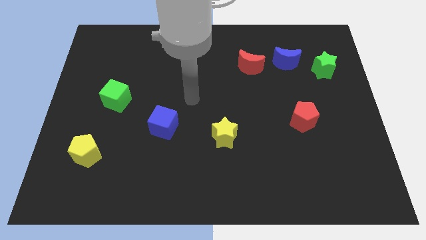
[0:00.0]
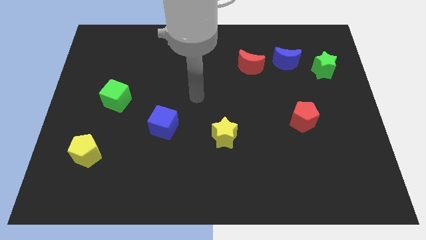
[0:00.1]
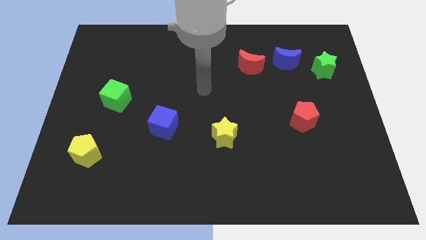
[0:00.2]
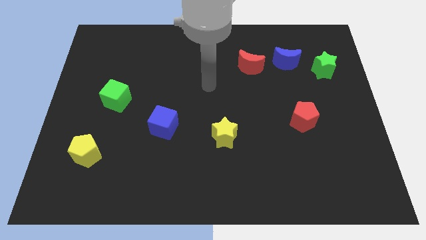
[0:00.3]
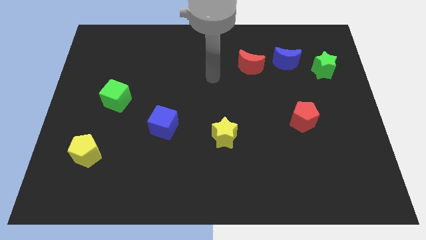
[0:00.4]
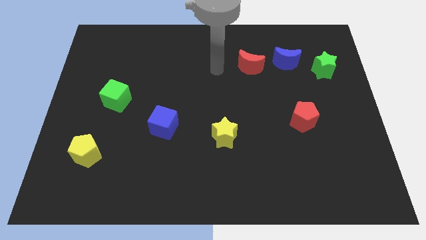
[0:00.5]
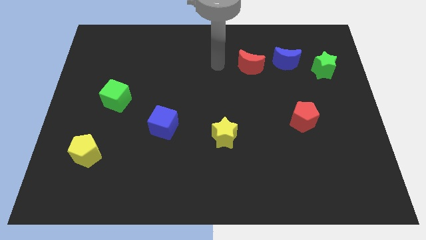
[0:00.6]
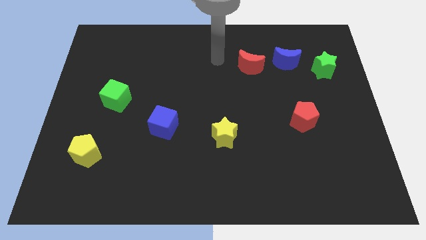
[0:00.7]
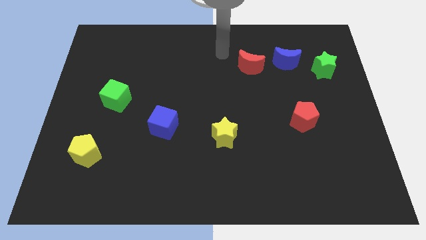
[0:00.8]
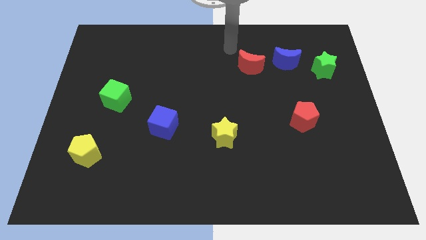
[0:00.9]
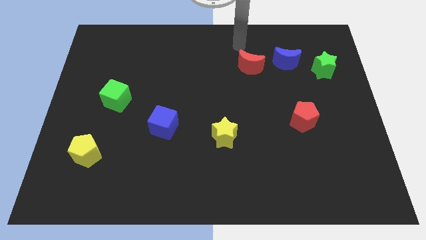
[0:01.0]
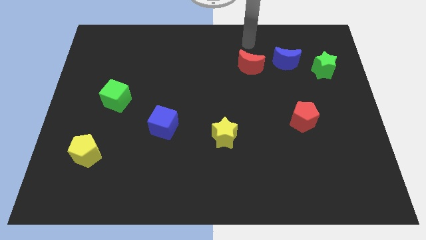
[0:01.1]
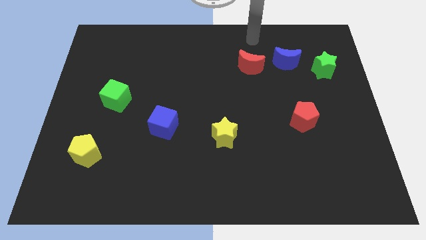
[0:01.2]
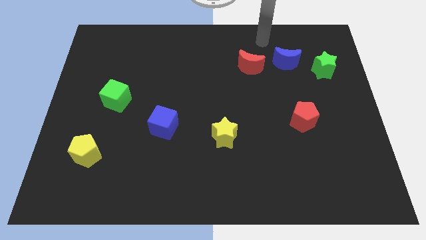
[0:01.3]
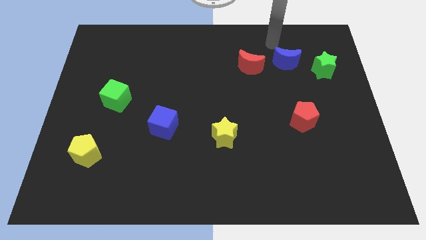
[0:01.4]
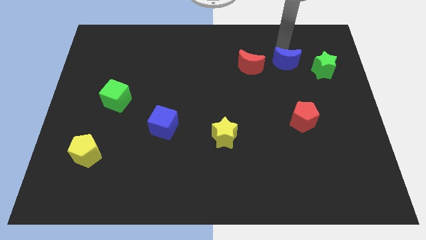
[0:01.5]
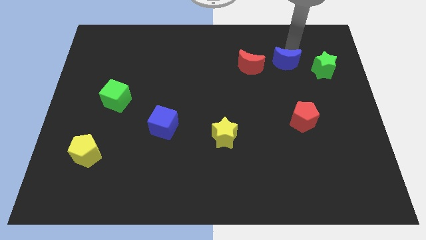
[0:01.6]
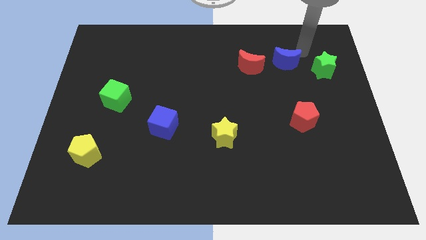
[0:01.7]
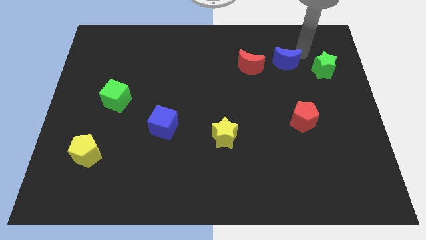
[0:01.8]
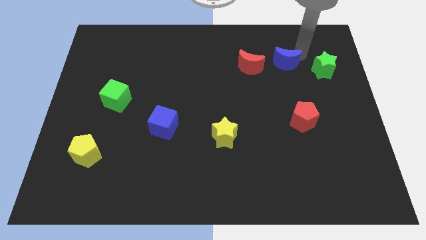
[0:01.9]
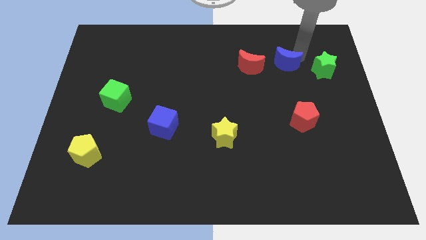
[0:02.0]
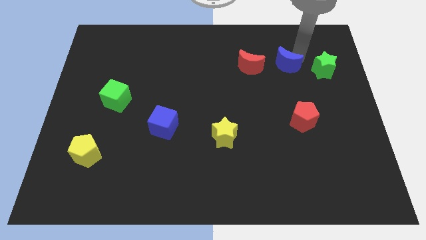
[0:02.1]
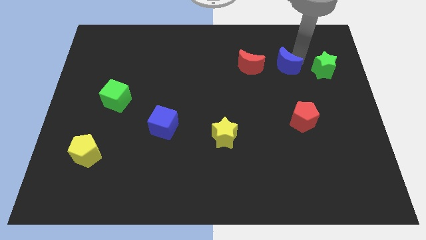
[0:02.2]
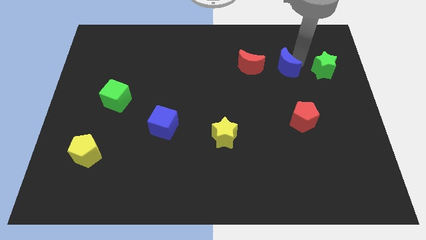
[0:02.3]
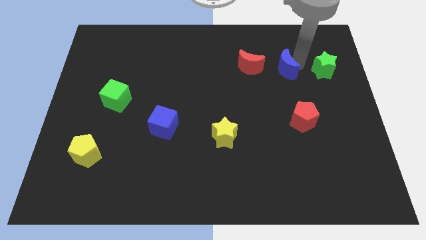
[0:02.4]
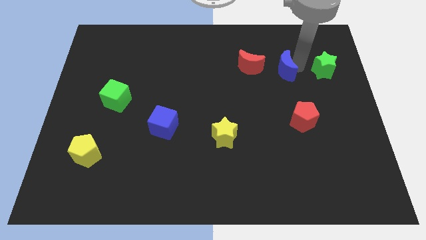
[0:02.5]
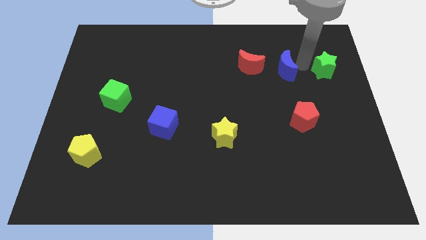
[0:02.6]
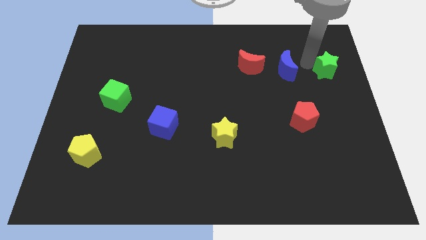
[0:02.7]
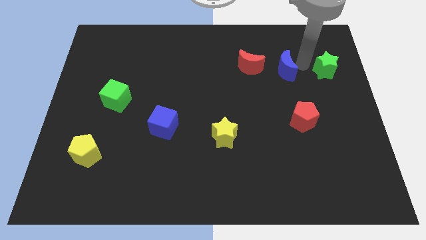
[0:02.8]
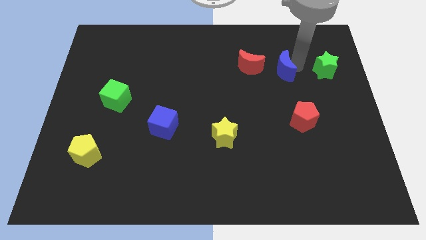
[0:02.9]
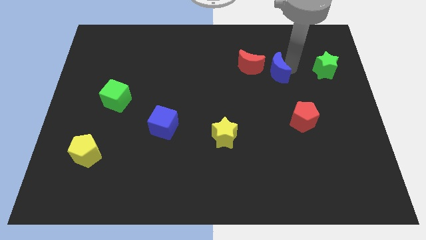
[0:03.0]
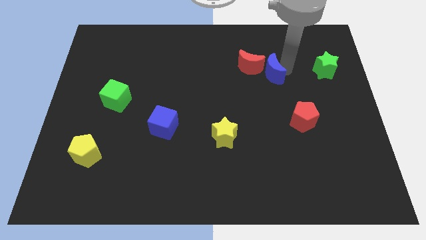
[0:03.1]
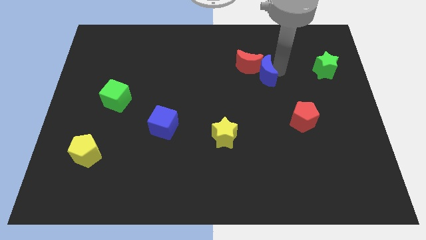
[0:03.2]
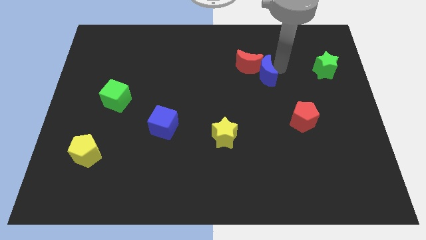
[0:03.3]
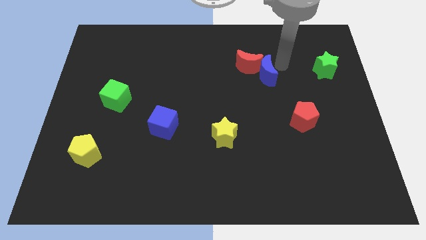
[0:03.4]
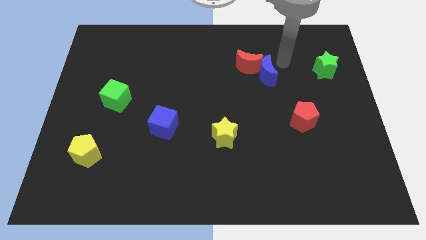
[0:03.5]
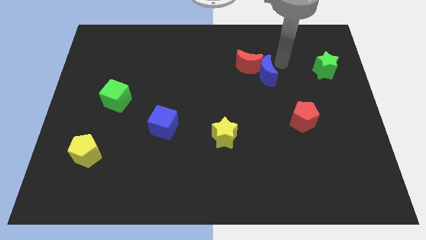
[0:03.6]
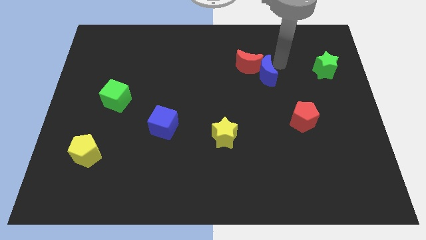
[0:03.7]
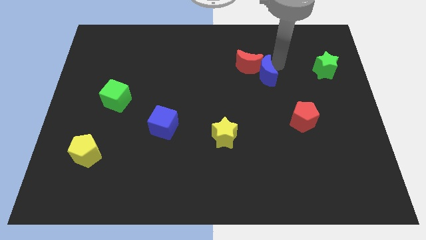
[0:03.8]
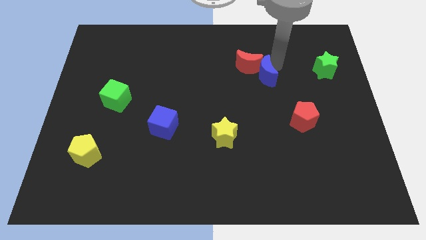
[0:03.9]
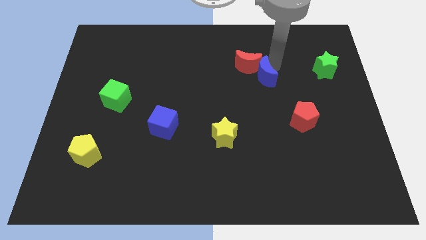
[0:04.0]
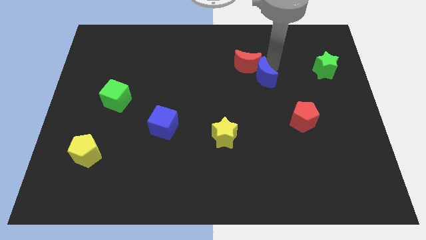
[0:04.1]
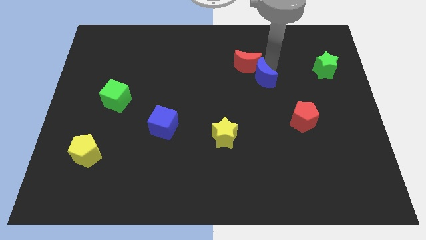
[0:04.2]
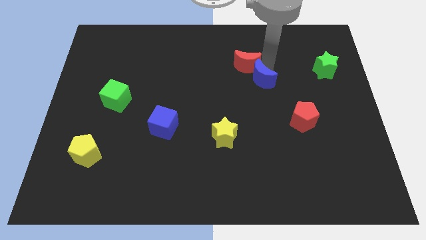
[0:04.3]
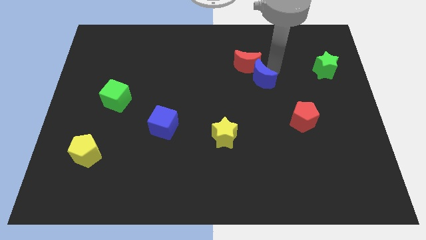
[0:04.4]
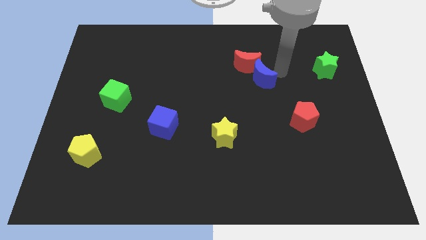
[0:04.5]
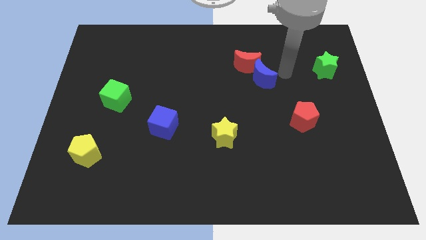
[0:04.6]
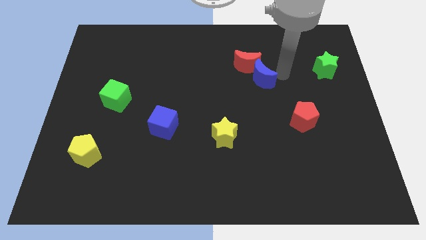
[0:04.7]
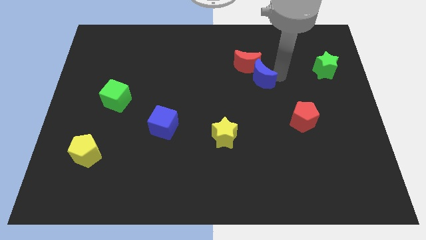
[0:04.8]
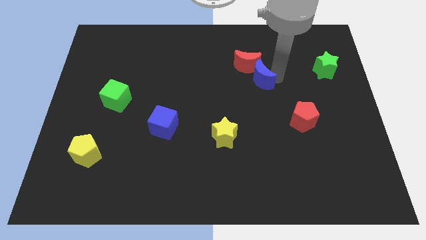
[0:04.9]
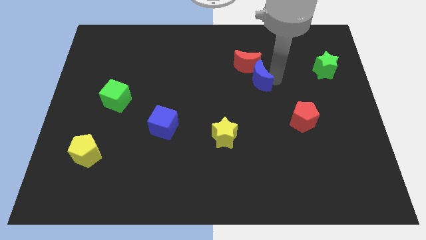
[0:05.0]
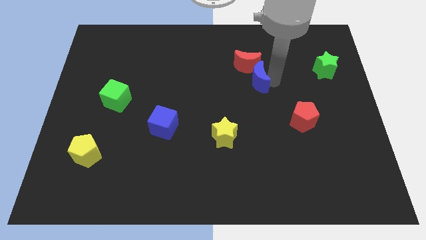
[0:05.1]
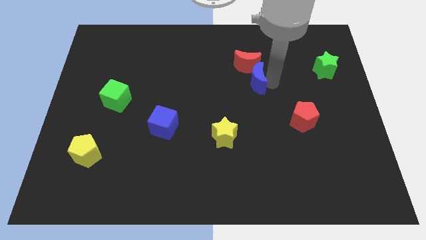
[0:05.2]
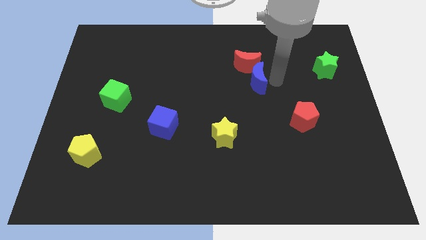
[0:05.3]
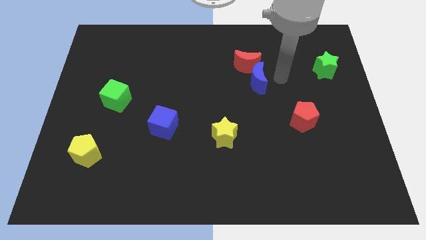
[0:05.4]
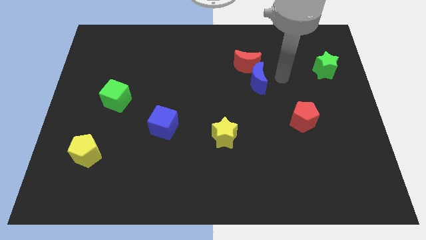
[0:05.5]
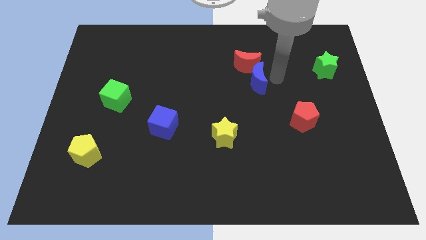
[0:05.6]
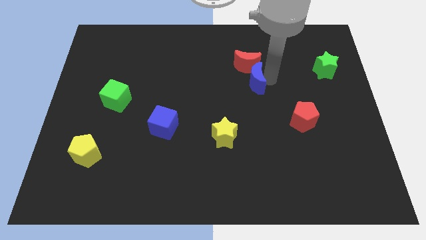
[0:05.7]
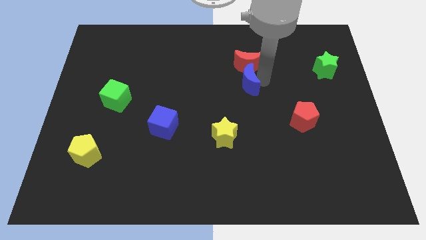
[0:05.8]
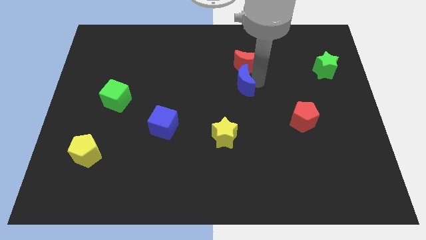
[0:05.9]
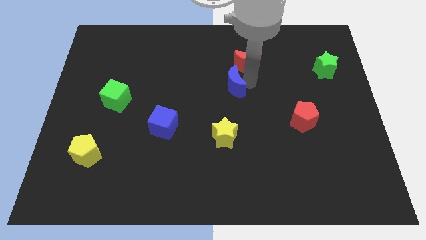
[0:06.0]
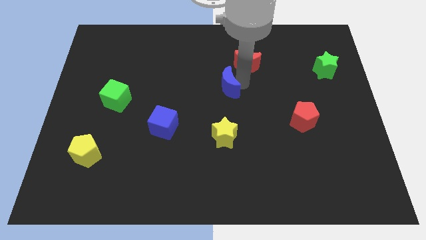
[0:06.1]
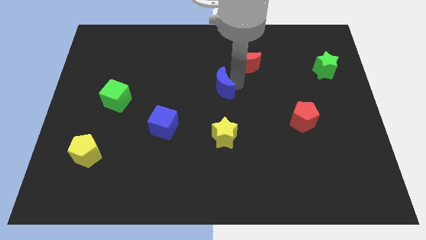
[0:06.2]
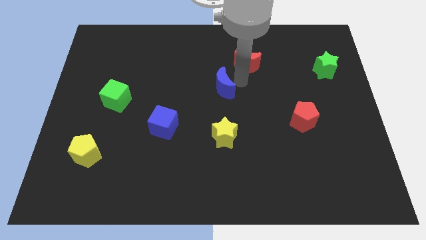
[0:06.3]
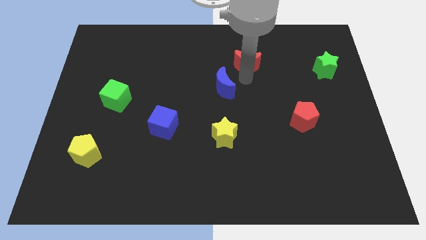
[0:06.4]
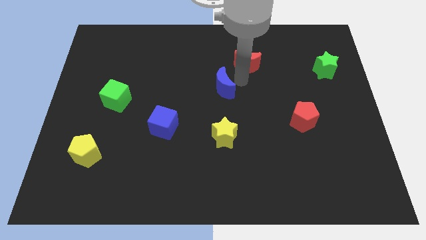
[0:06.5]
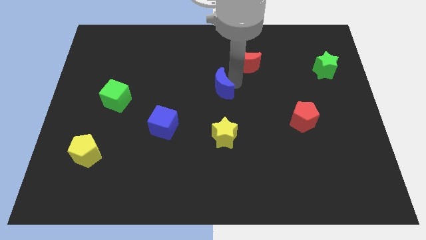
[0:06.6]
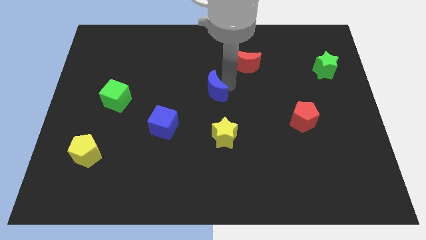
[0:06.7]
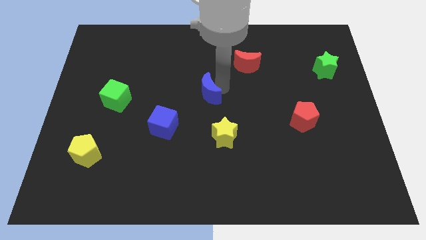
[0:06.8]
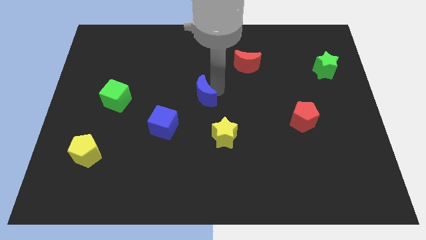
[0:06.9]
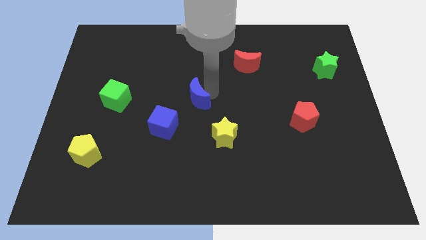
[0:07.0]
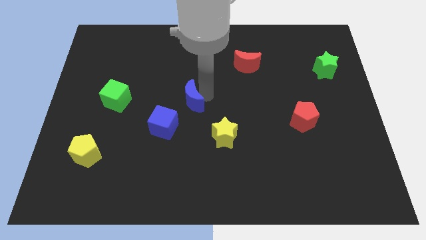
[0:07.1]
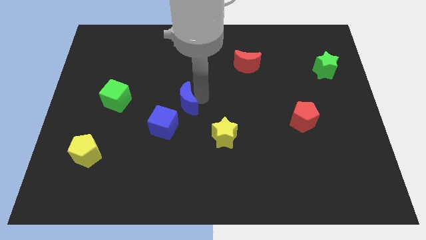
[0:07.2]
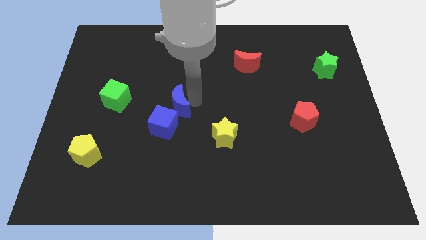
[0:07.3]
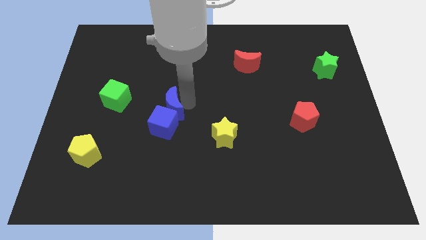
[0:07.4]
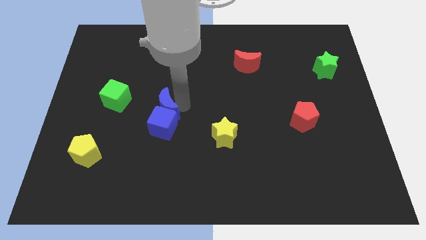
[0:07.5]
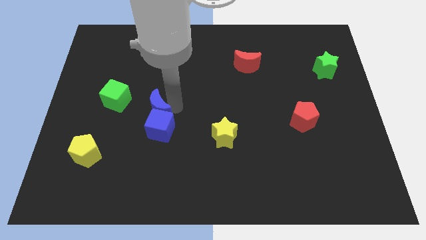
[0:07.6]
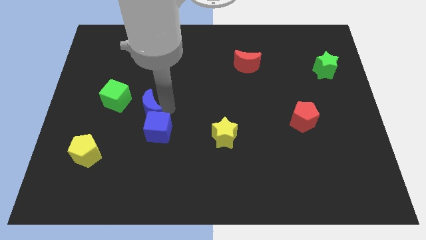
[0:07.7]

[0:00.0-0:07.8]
move the blue moon diagonally down and to the right of the green cube
